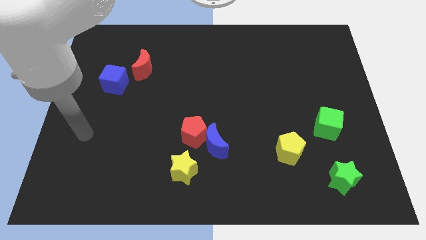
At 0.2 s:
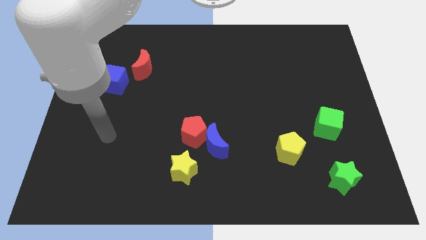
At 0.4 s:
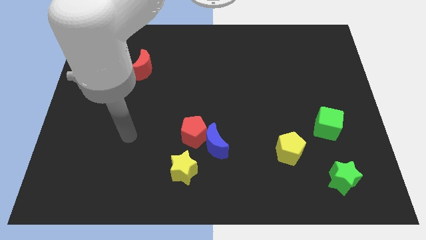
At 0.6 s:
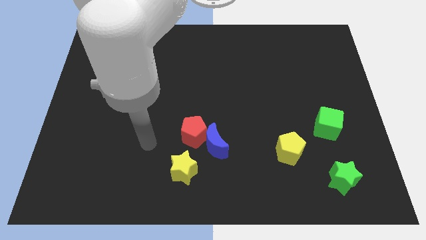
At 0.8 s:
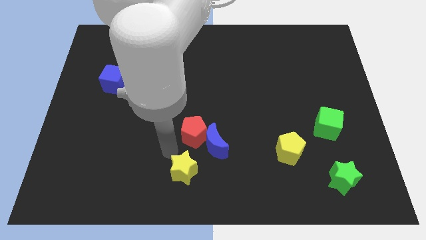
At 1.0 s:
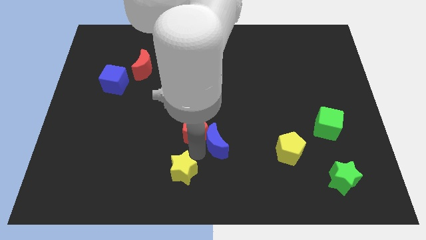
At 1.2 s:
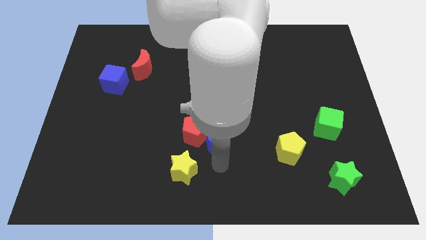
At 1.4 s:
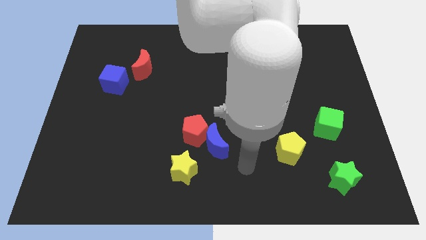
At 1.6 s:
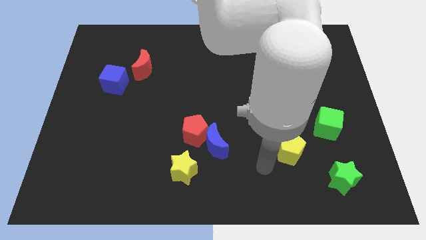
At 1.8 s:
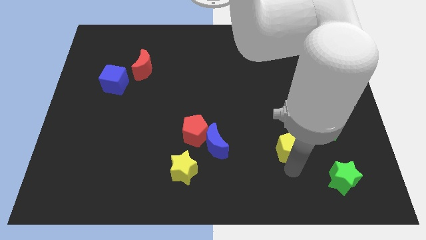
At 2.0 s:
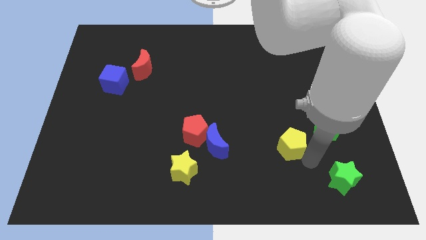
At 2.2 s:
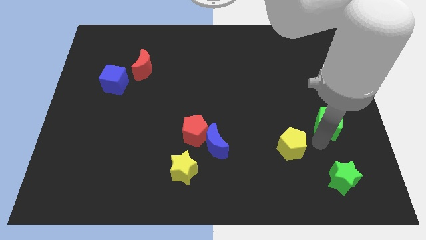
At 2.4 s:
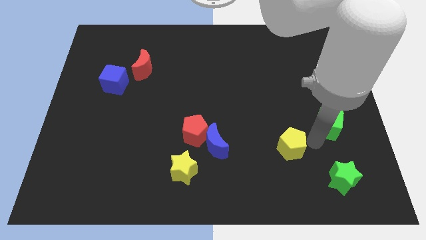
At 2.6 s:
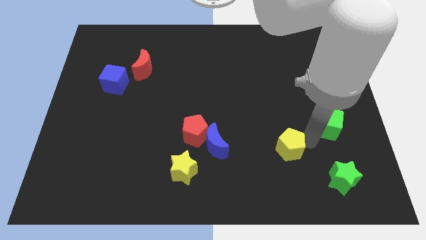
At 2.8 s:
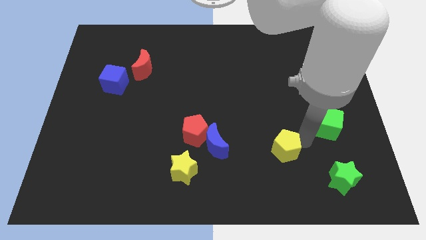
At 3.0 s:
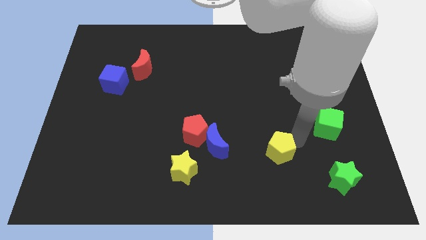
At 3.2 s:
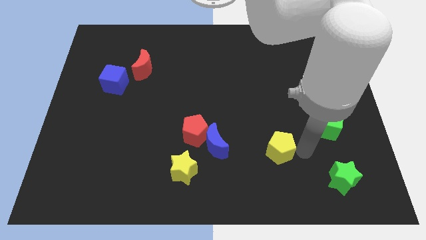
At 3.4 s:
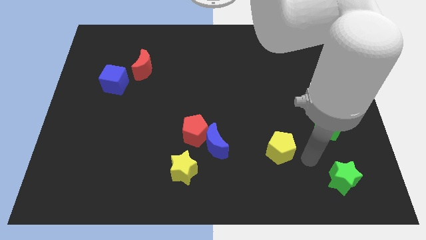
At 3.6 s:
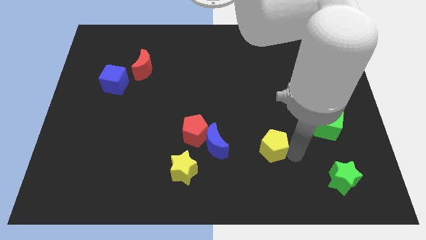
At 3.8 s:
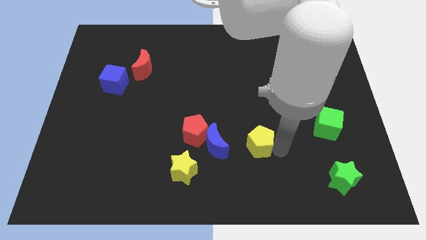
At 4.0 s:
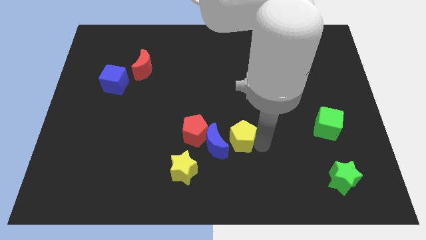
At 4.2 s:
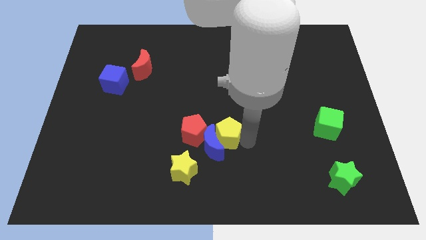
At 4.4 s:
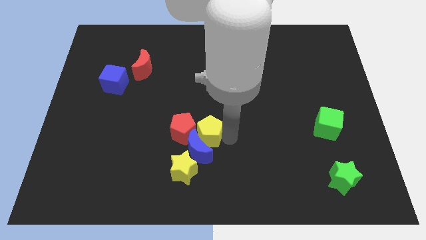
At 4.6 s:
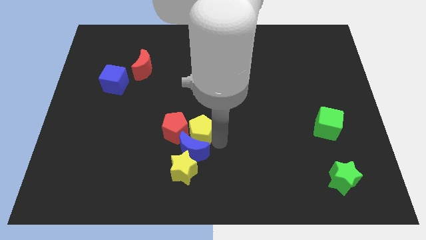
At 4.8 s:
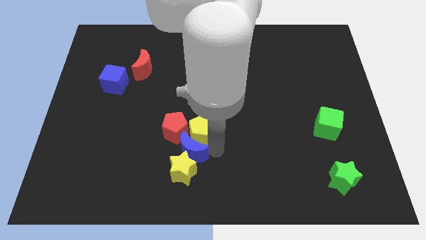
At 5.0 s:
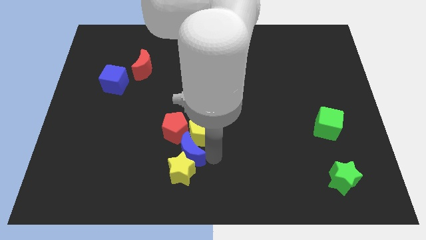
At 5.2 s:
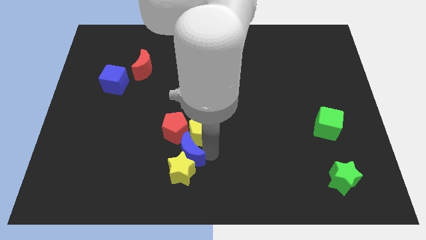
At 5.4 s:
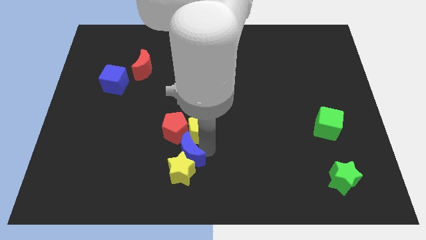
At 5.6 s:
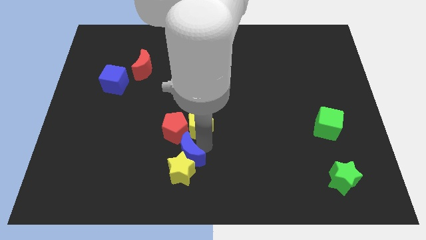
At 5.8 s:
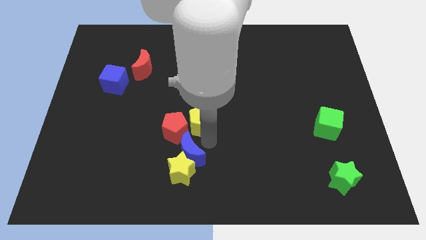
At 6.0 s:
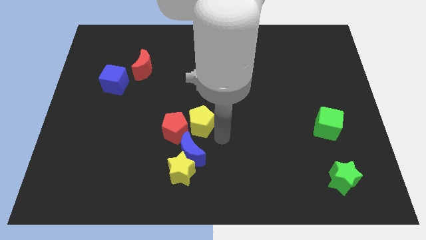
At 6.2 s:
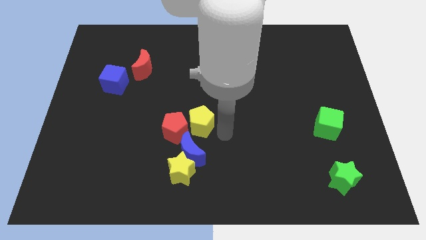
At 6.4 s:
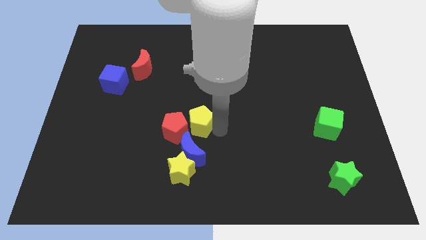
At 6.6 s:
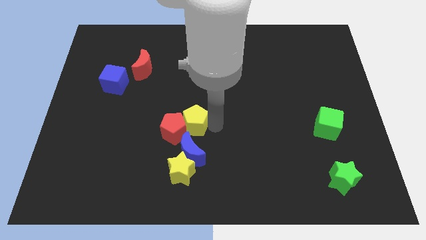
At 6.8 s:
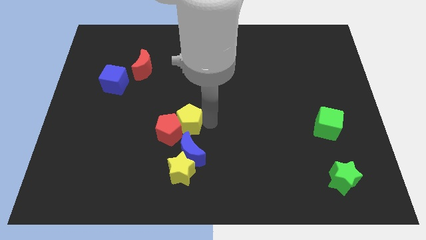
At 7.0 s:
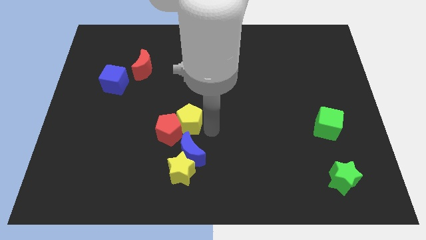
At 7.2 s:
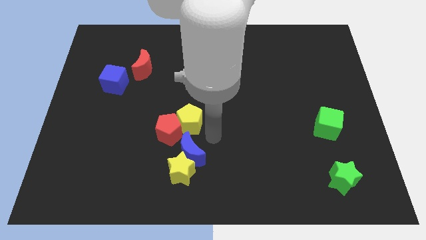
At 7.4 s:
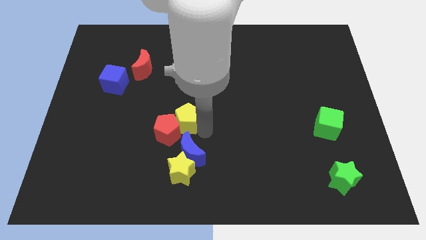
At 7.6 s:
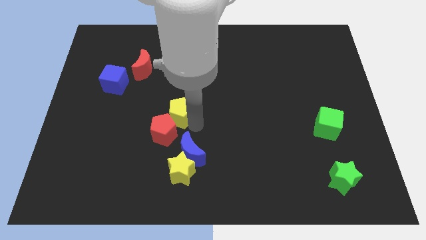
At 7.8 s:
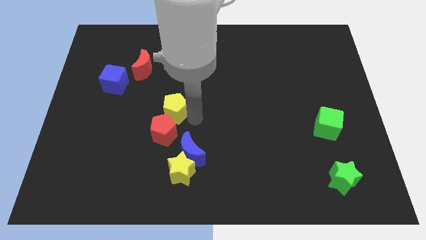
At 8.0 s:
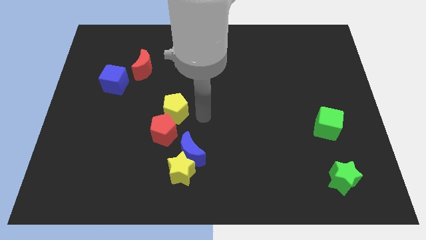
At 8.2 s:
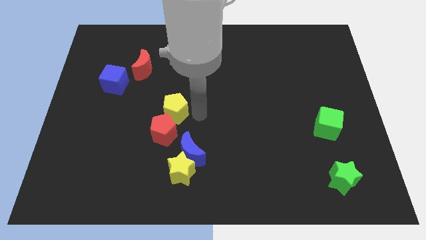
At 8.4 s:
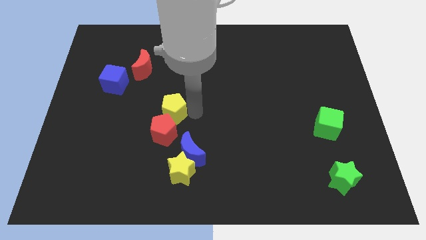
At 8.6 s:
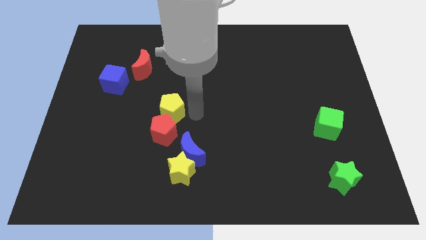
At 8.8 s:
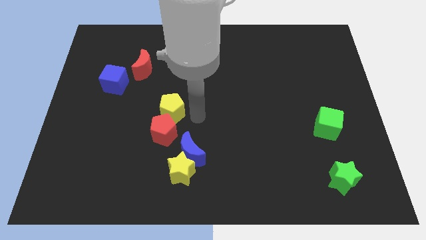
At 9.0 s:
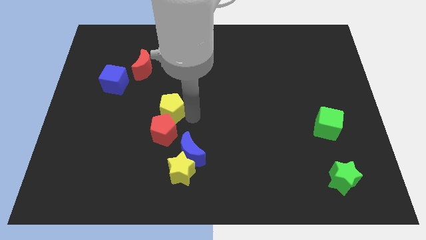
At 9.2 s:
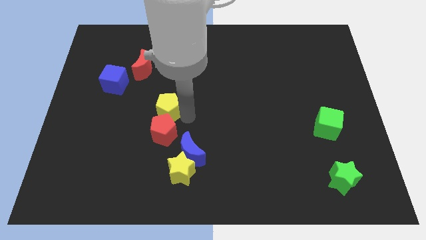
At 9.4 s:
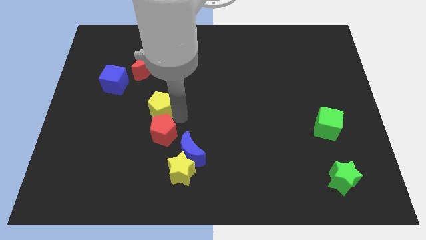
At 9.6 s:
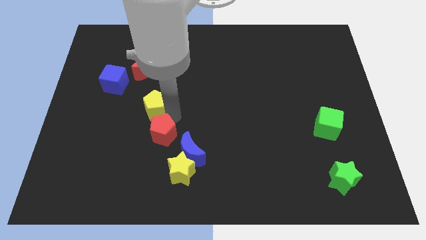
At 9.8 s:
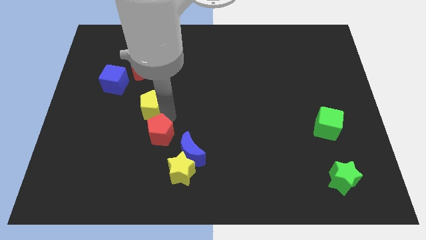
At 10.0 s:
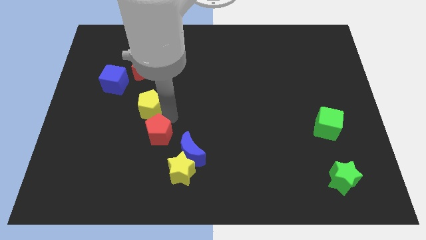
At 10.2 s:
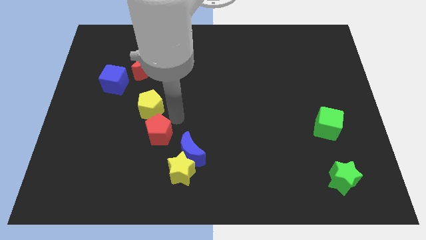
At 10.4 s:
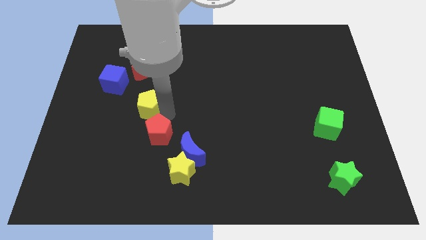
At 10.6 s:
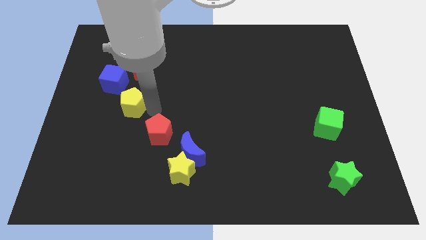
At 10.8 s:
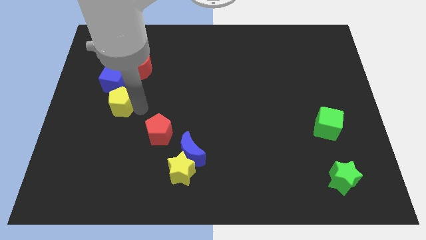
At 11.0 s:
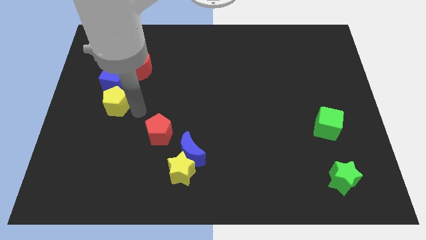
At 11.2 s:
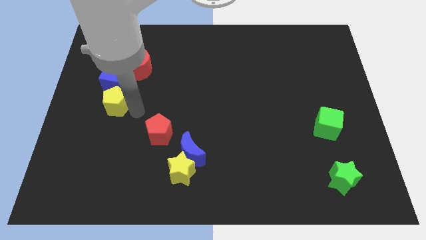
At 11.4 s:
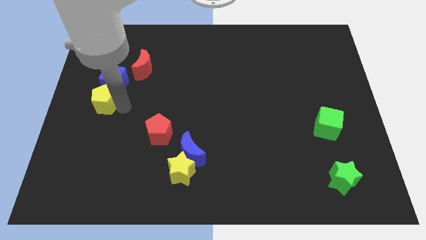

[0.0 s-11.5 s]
slide the yellow pentagon to the center left

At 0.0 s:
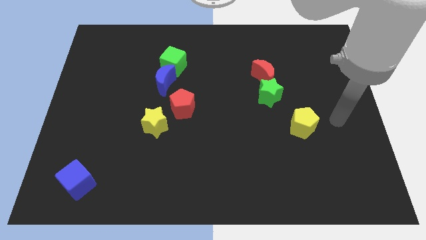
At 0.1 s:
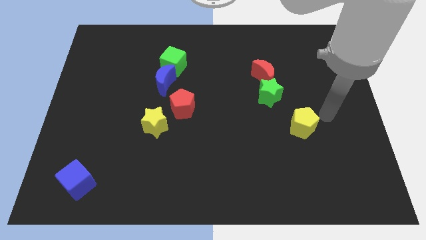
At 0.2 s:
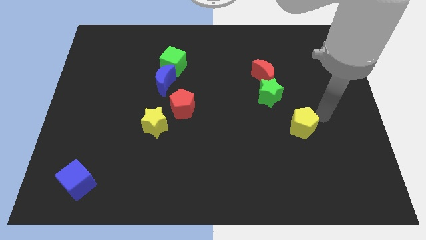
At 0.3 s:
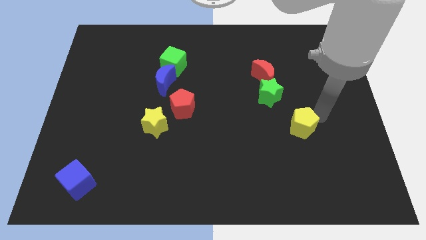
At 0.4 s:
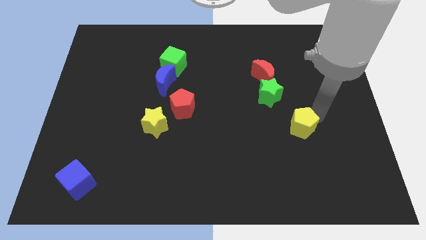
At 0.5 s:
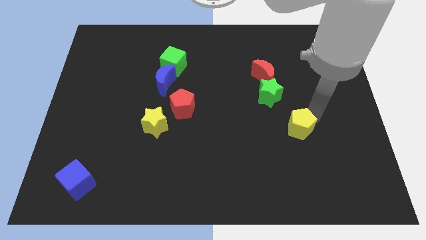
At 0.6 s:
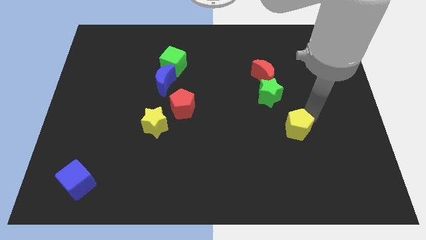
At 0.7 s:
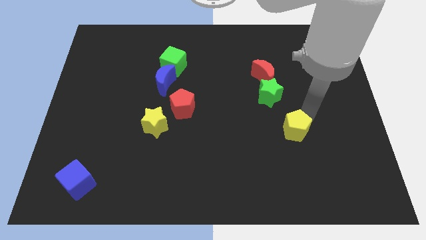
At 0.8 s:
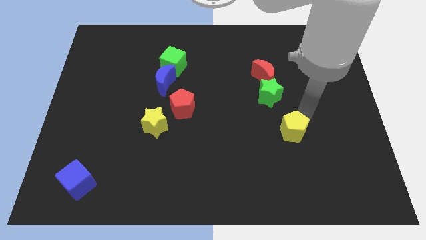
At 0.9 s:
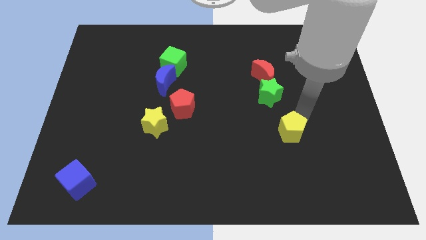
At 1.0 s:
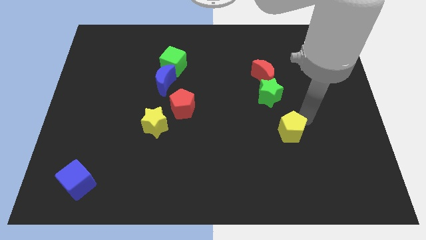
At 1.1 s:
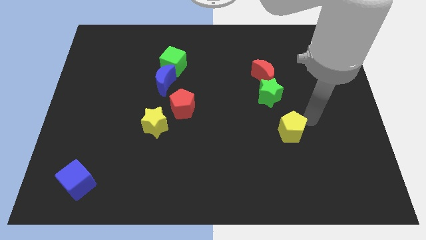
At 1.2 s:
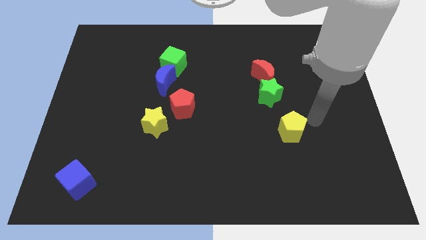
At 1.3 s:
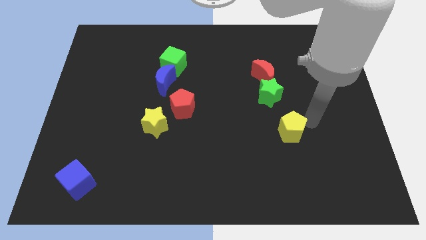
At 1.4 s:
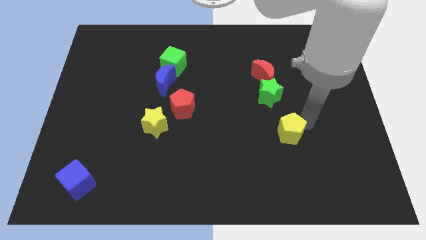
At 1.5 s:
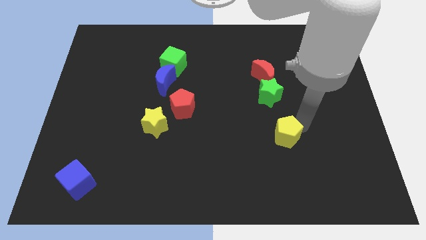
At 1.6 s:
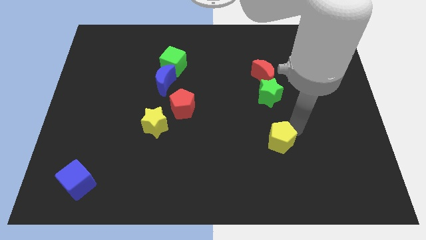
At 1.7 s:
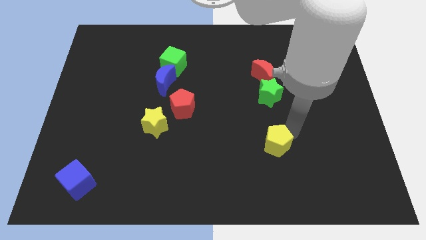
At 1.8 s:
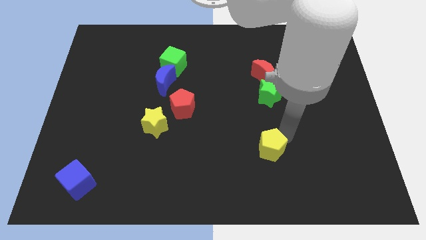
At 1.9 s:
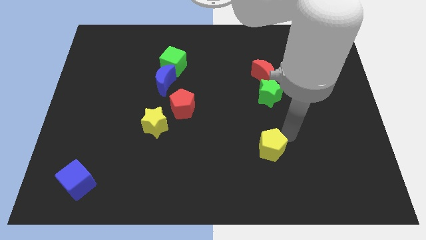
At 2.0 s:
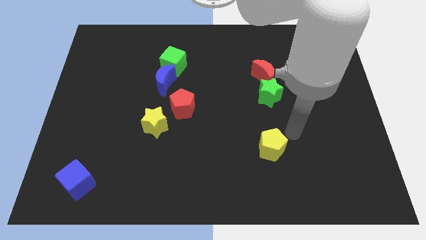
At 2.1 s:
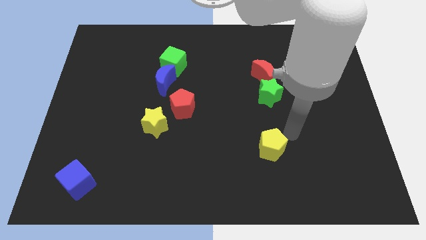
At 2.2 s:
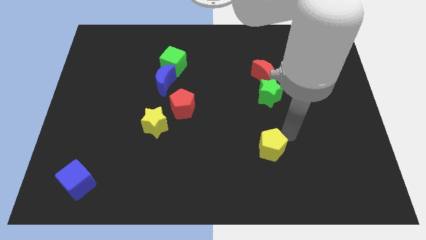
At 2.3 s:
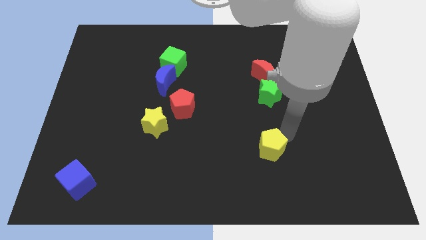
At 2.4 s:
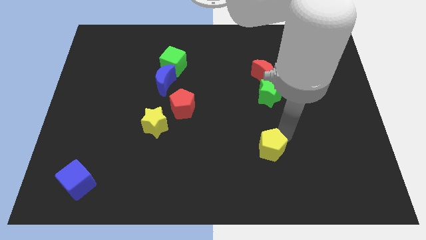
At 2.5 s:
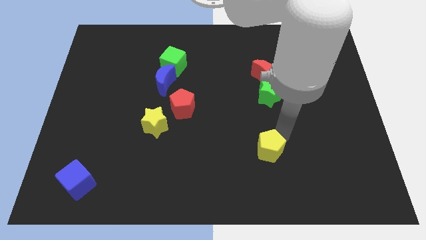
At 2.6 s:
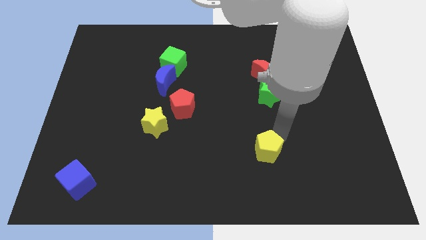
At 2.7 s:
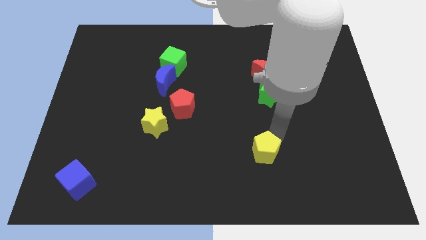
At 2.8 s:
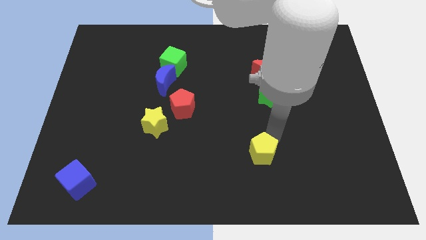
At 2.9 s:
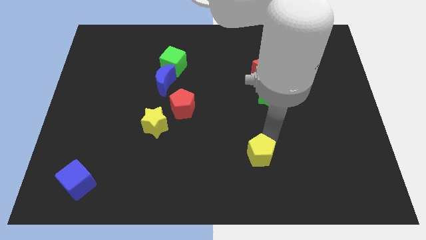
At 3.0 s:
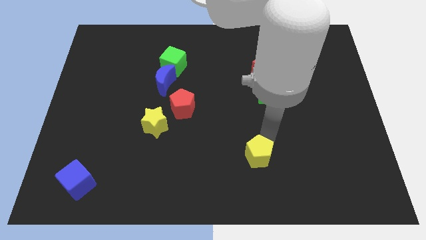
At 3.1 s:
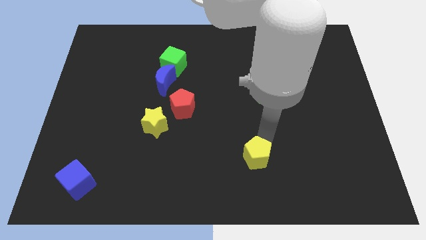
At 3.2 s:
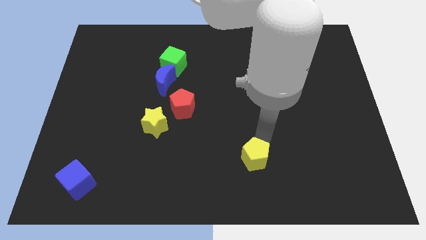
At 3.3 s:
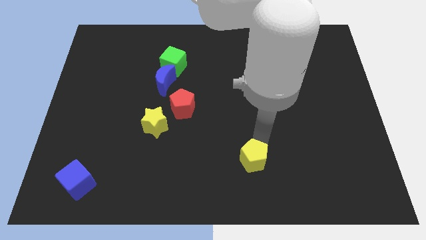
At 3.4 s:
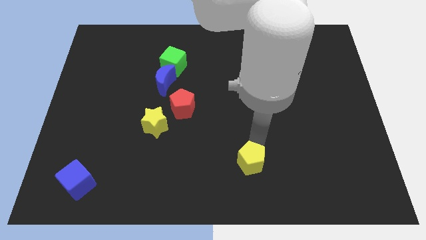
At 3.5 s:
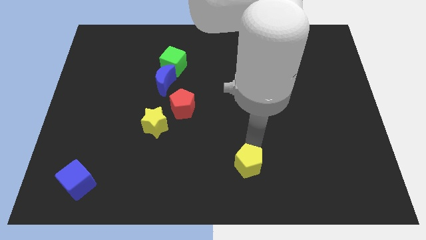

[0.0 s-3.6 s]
move the yellow pentagon to the bottom side
